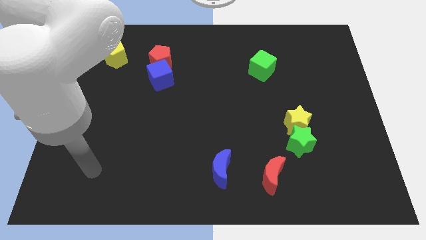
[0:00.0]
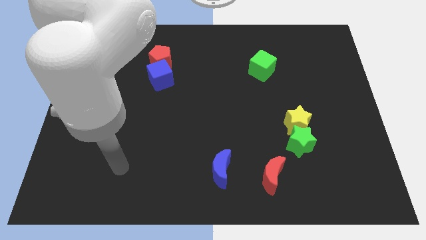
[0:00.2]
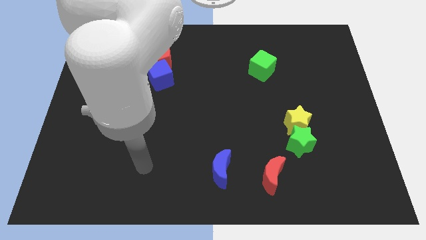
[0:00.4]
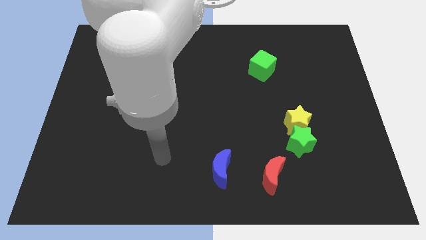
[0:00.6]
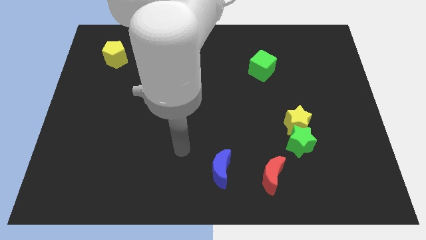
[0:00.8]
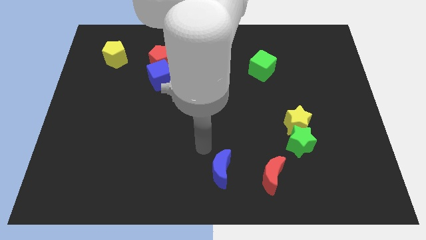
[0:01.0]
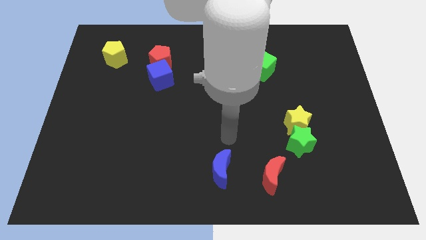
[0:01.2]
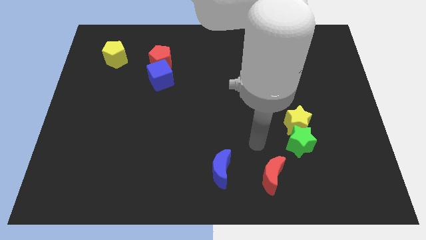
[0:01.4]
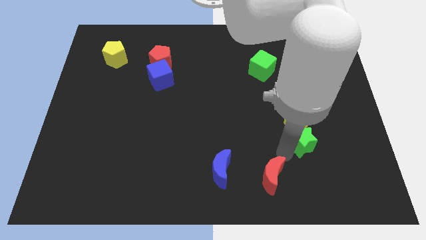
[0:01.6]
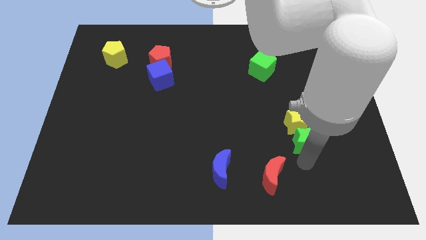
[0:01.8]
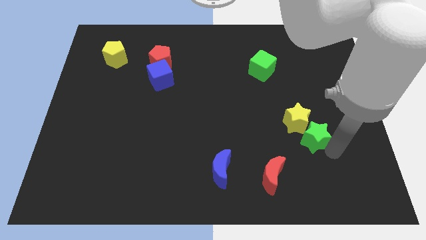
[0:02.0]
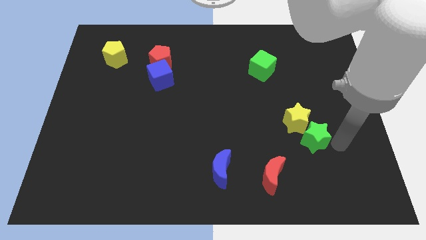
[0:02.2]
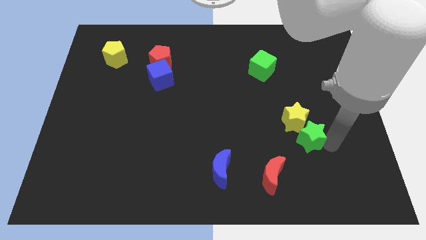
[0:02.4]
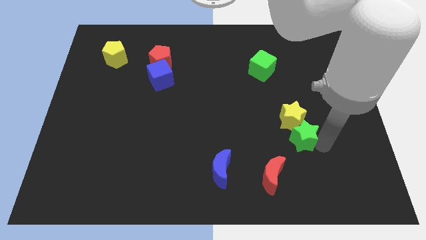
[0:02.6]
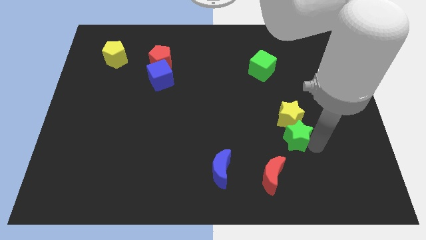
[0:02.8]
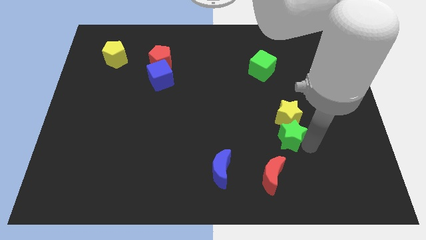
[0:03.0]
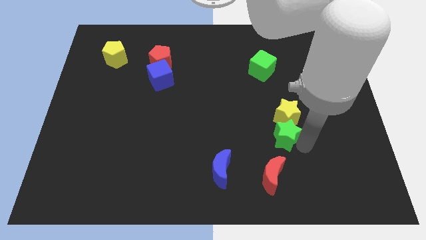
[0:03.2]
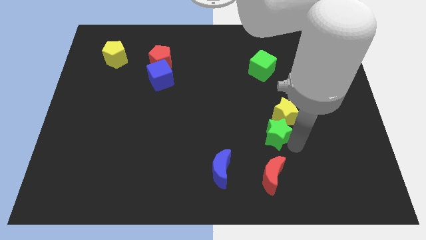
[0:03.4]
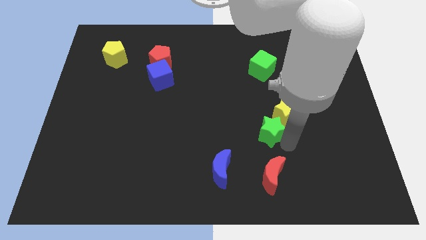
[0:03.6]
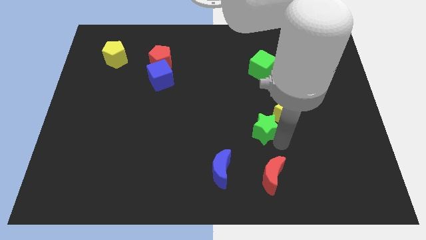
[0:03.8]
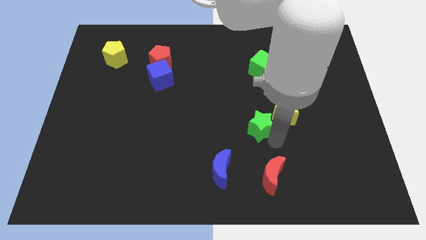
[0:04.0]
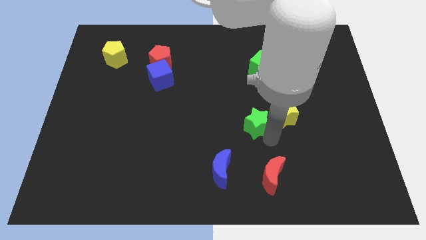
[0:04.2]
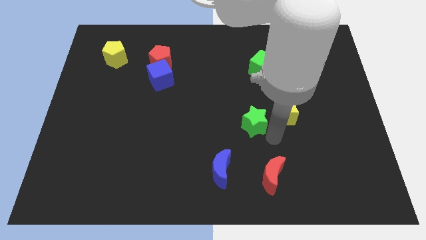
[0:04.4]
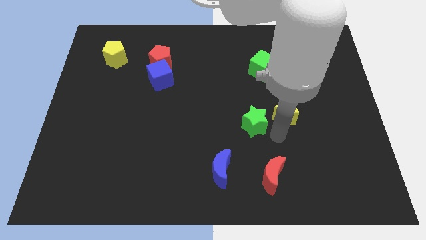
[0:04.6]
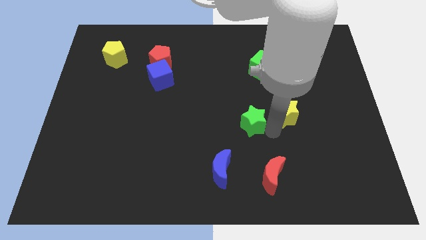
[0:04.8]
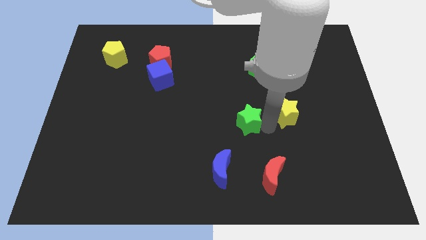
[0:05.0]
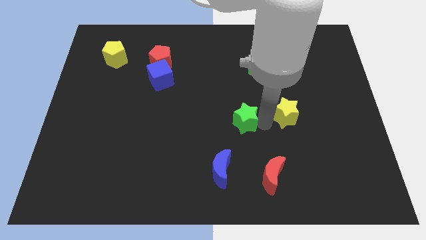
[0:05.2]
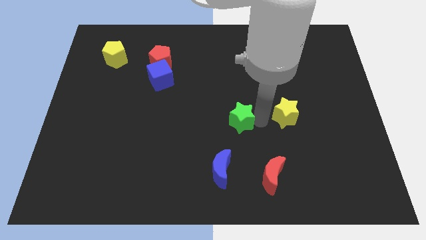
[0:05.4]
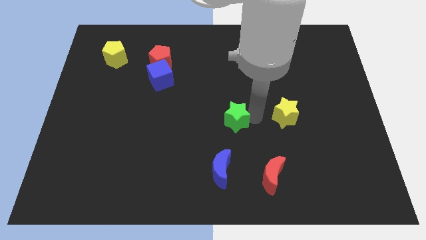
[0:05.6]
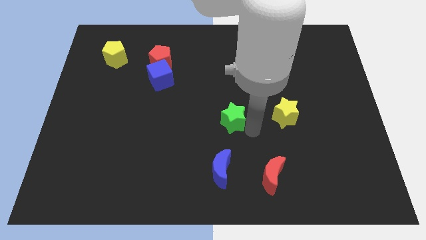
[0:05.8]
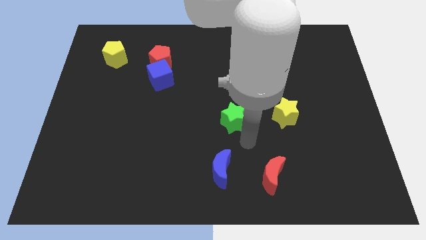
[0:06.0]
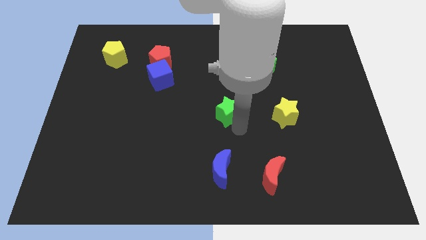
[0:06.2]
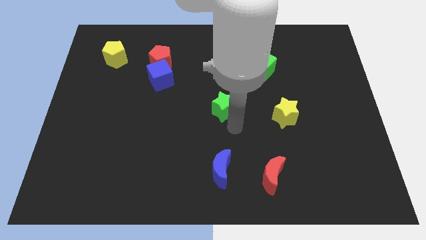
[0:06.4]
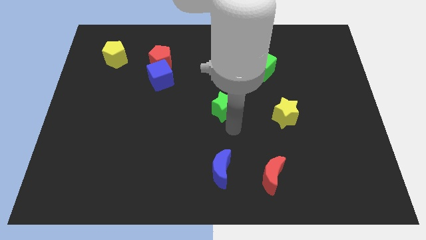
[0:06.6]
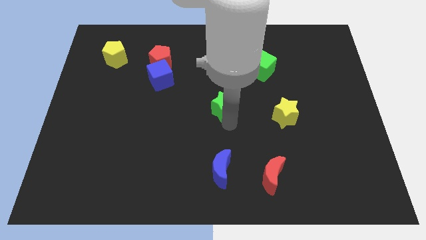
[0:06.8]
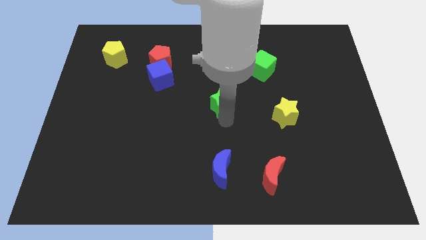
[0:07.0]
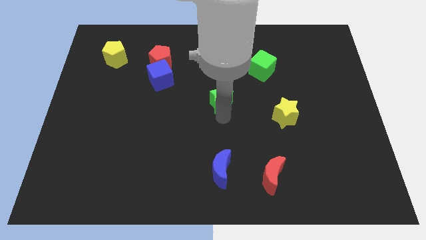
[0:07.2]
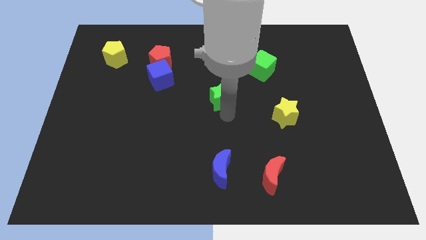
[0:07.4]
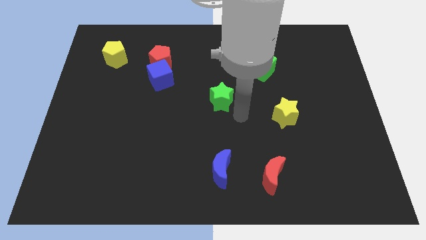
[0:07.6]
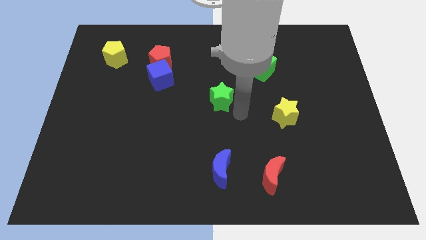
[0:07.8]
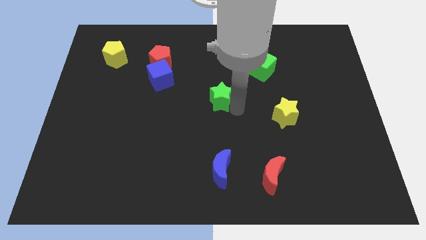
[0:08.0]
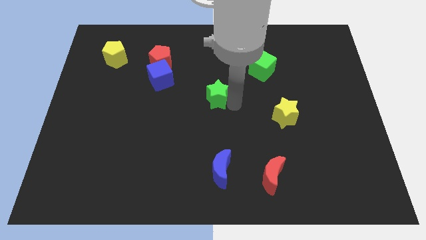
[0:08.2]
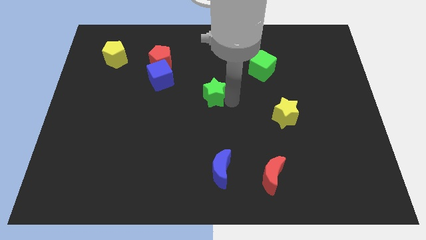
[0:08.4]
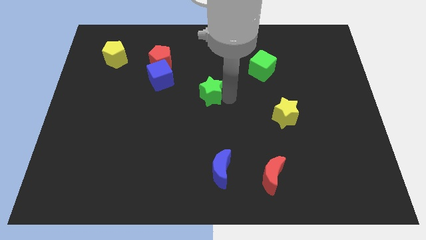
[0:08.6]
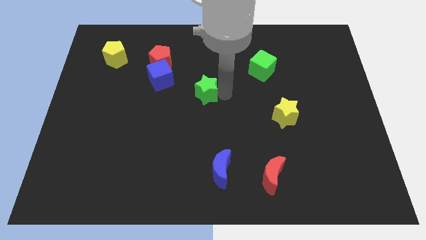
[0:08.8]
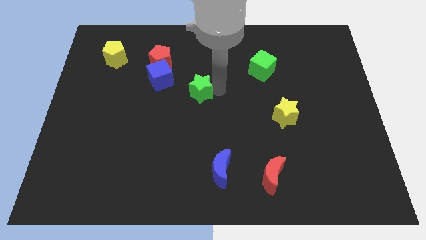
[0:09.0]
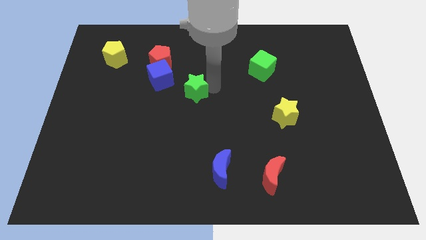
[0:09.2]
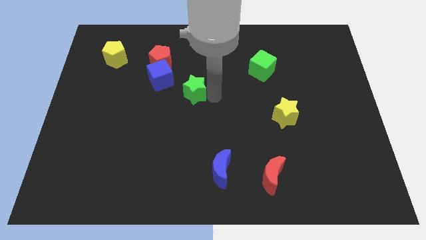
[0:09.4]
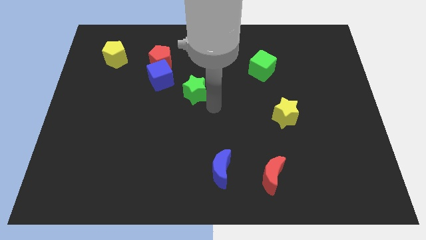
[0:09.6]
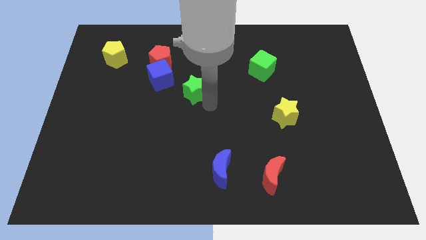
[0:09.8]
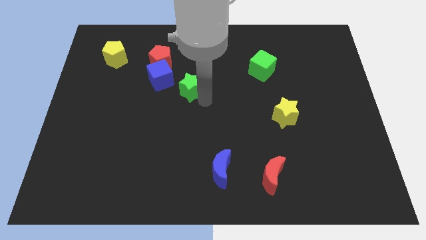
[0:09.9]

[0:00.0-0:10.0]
slide the green star to the bottom right side of the red pentagon

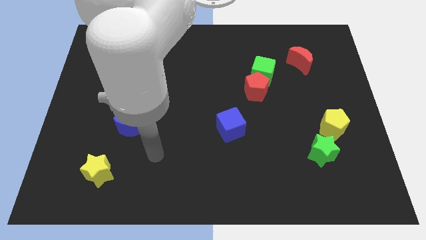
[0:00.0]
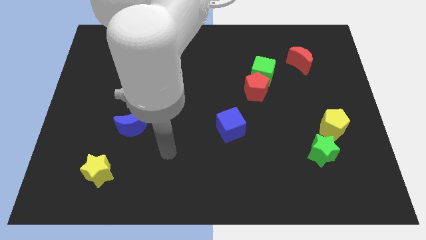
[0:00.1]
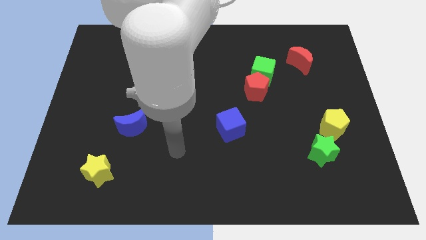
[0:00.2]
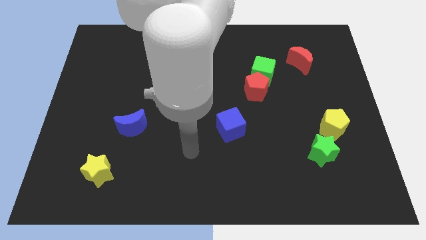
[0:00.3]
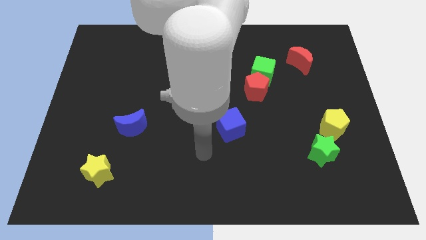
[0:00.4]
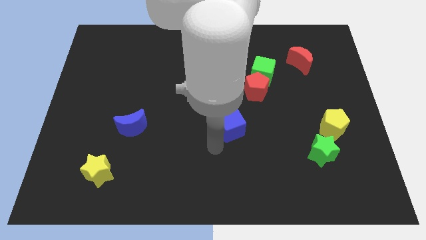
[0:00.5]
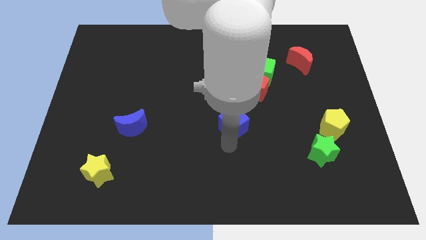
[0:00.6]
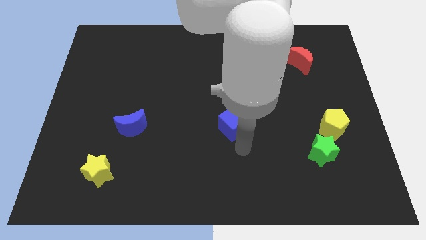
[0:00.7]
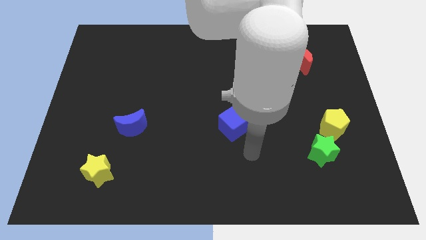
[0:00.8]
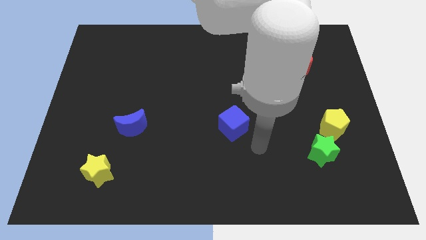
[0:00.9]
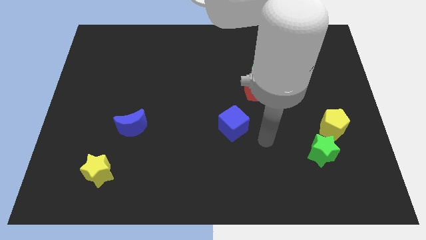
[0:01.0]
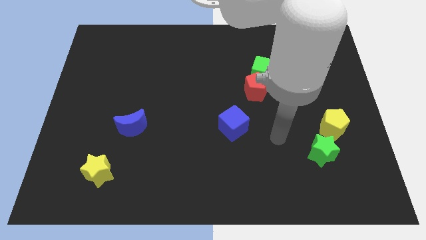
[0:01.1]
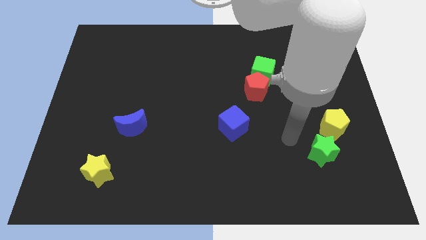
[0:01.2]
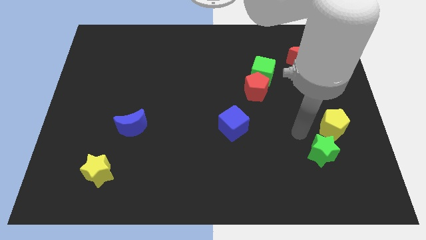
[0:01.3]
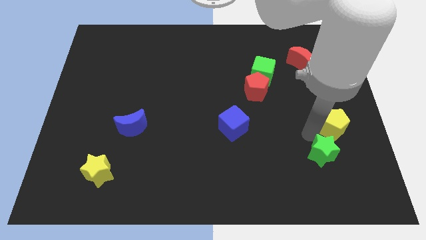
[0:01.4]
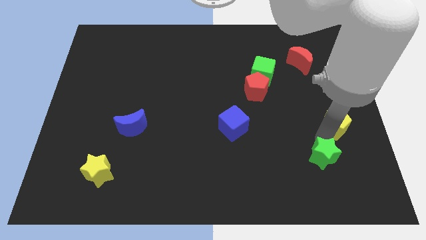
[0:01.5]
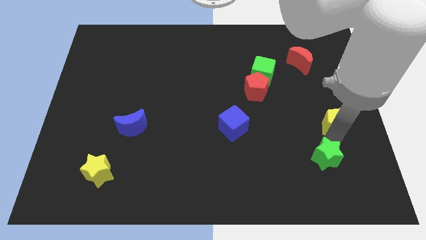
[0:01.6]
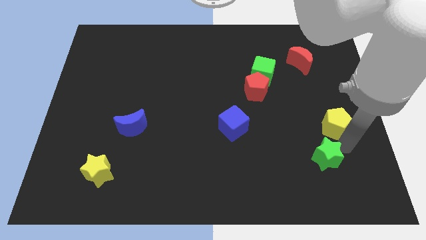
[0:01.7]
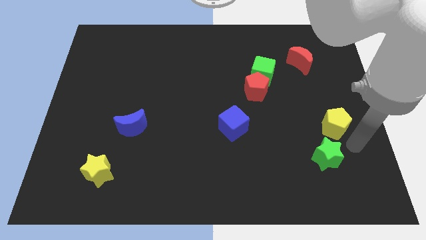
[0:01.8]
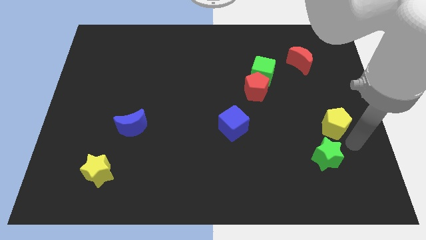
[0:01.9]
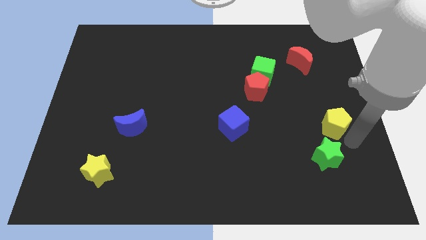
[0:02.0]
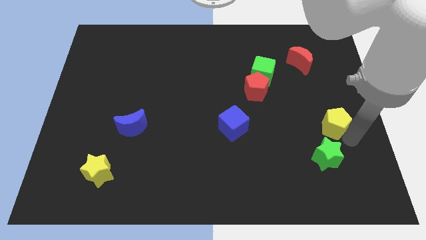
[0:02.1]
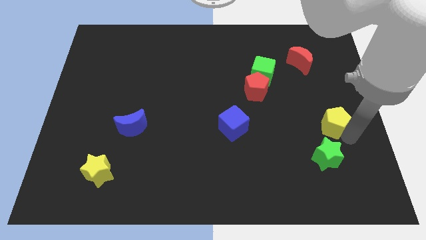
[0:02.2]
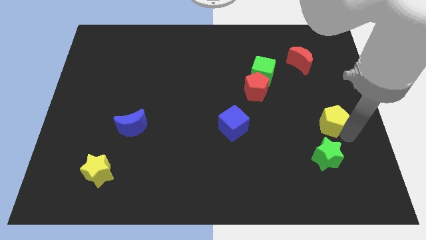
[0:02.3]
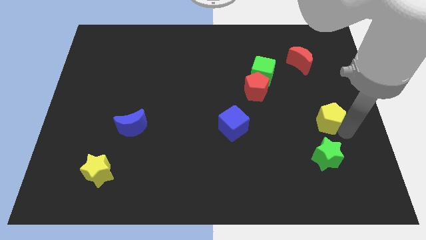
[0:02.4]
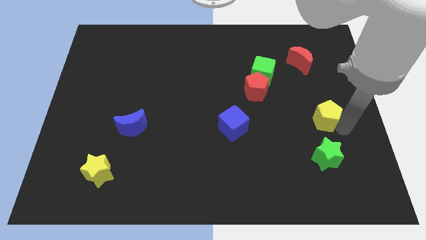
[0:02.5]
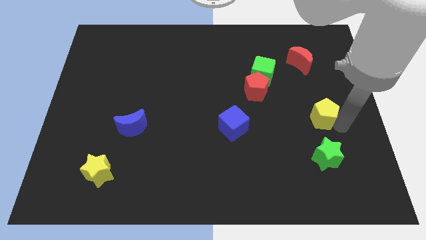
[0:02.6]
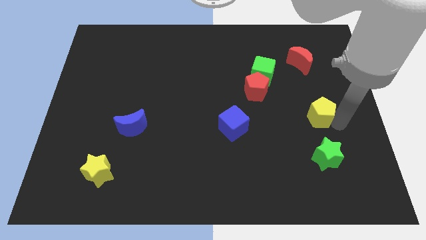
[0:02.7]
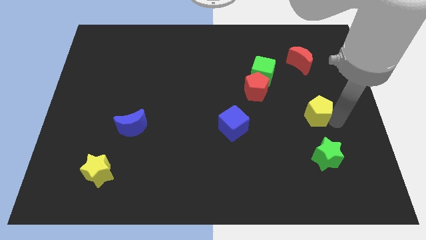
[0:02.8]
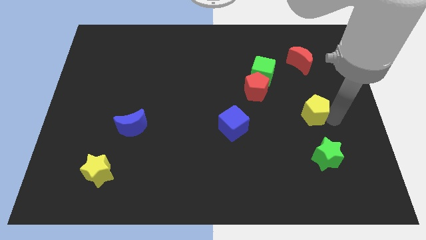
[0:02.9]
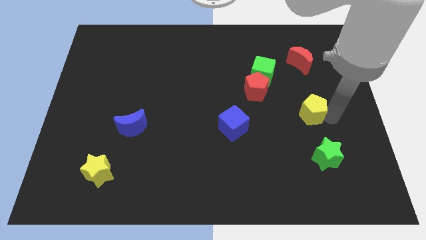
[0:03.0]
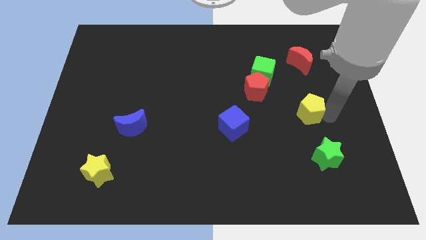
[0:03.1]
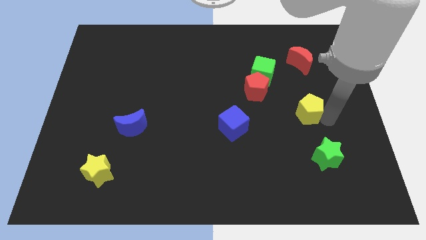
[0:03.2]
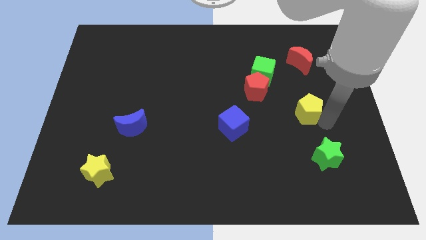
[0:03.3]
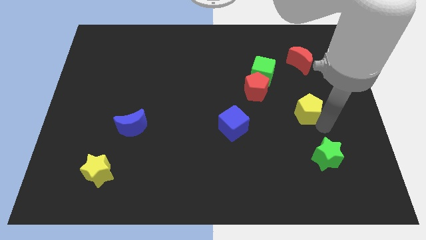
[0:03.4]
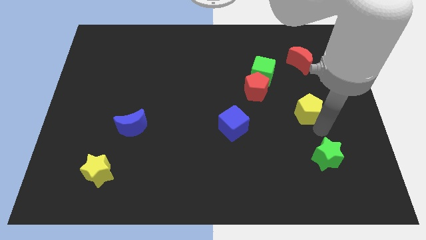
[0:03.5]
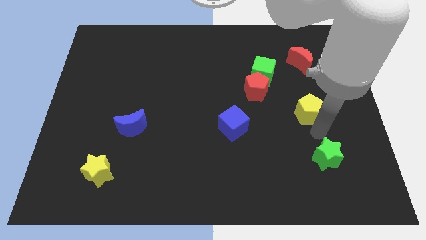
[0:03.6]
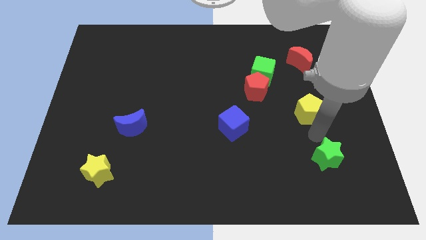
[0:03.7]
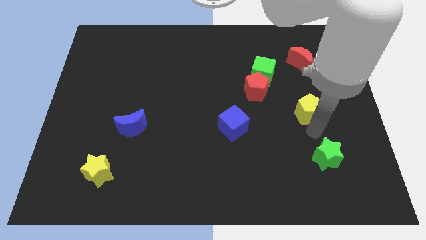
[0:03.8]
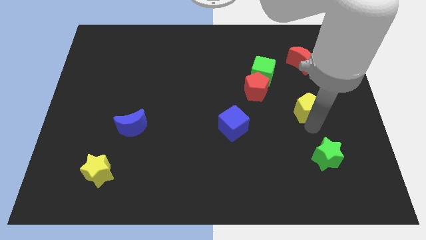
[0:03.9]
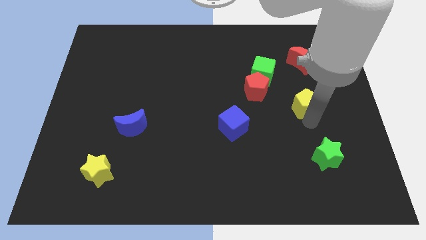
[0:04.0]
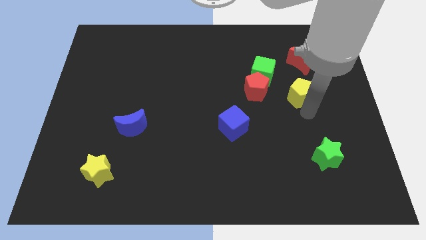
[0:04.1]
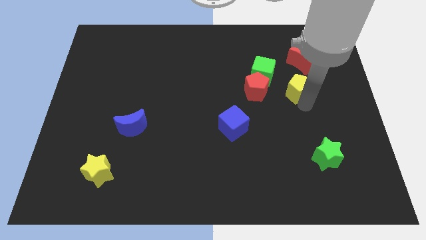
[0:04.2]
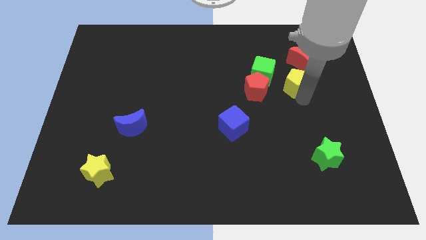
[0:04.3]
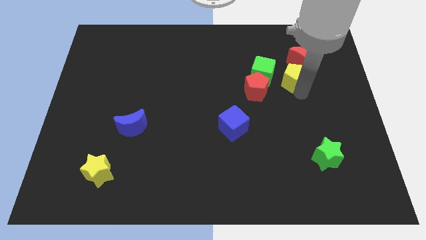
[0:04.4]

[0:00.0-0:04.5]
move the yellow pentagon to the top right of the red pentagon
